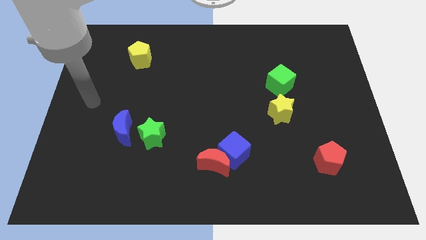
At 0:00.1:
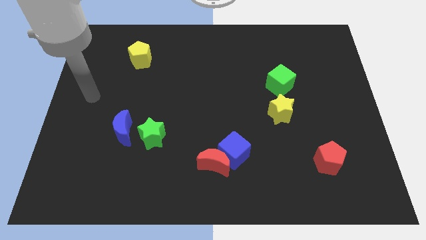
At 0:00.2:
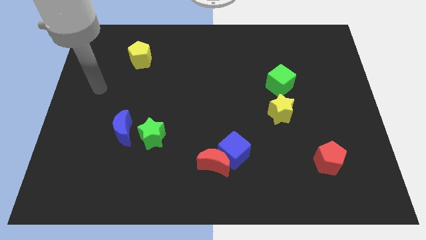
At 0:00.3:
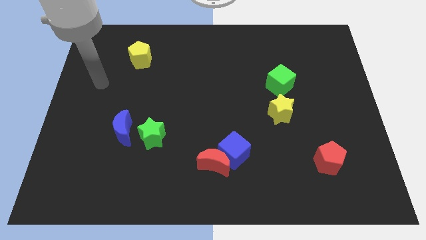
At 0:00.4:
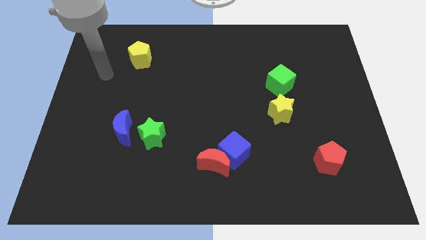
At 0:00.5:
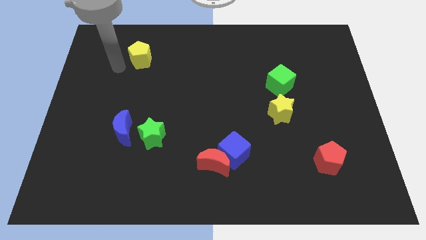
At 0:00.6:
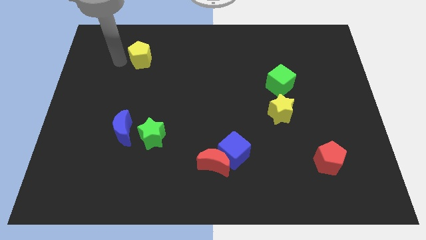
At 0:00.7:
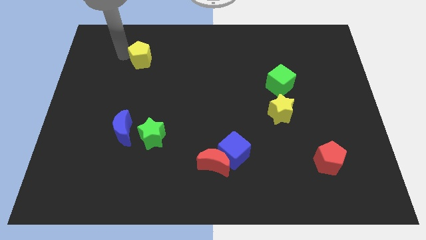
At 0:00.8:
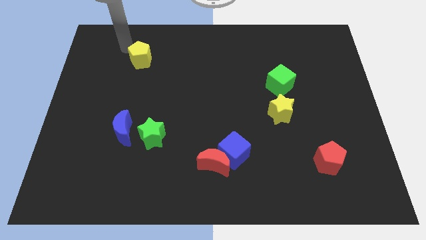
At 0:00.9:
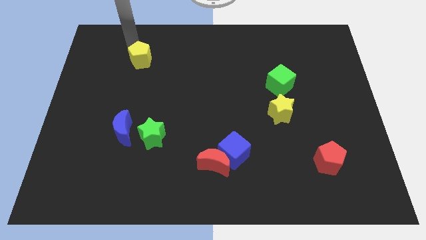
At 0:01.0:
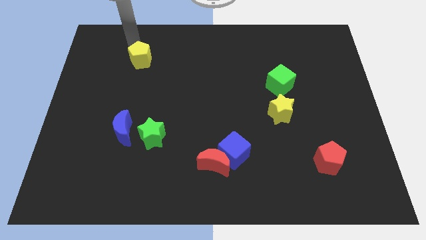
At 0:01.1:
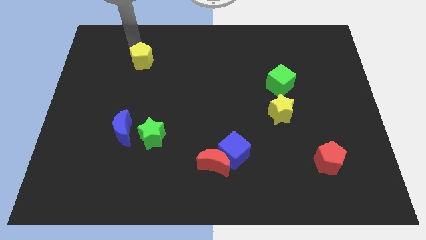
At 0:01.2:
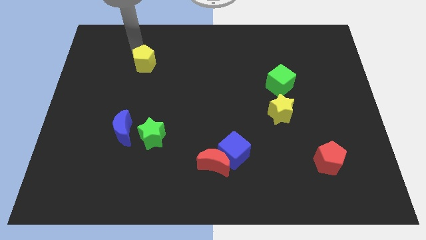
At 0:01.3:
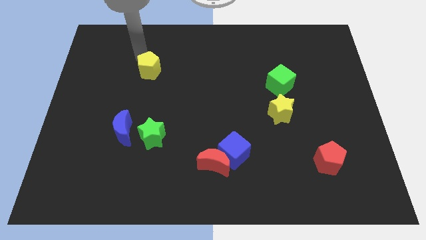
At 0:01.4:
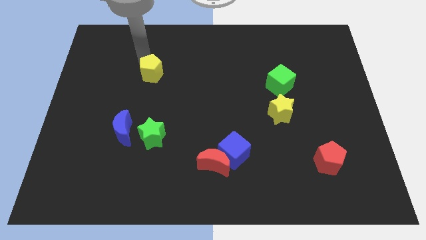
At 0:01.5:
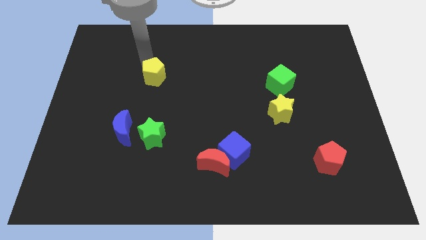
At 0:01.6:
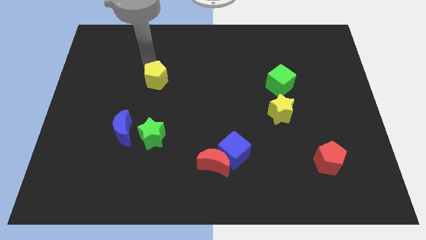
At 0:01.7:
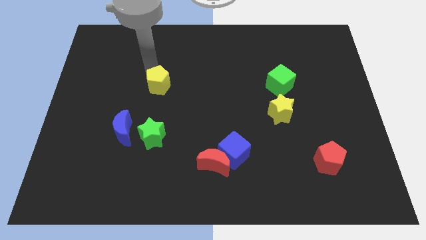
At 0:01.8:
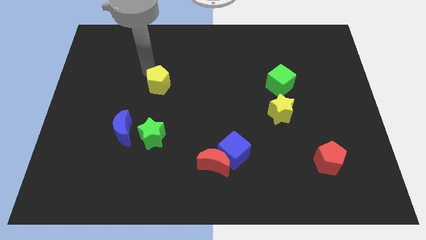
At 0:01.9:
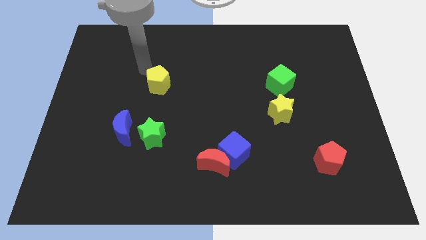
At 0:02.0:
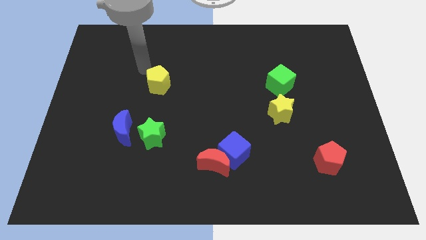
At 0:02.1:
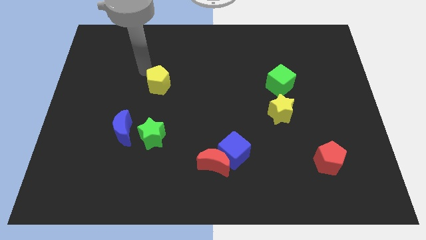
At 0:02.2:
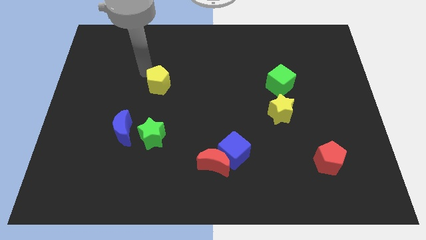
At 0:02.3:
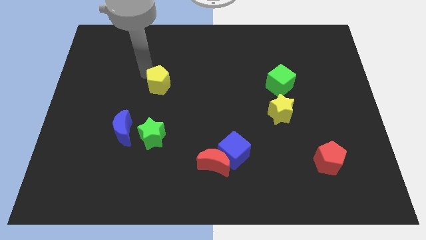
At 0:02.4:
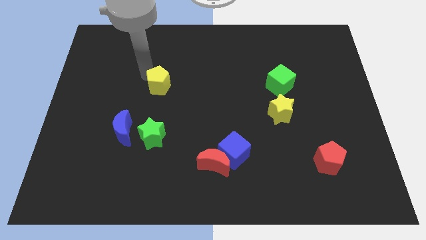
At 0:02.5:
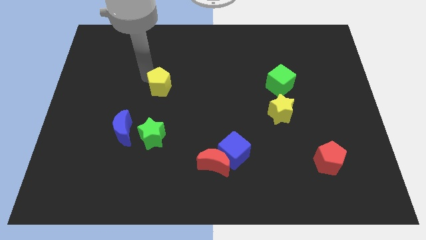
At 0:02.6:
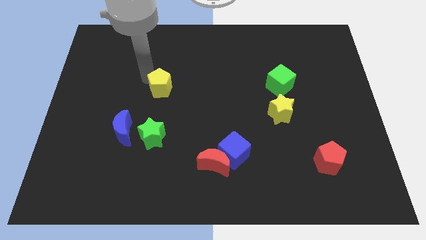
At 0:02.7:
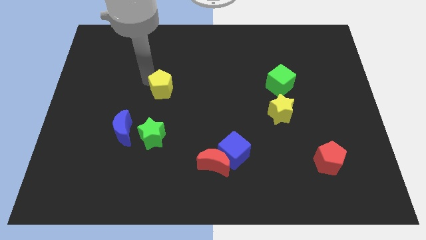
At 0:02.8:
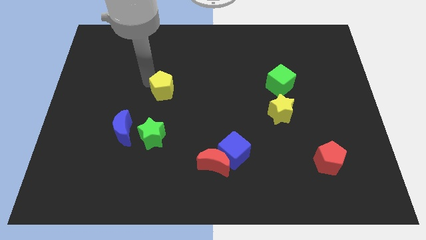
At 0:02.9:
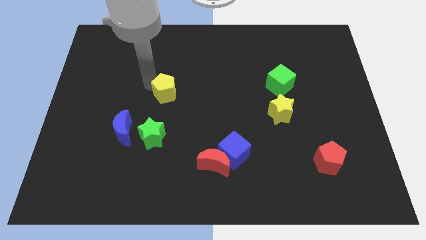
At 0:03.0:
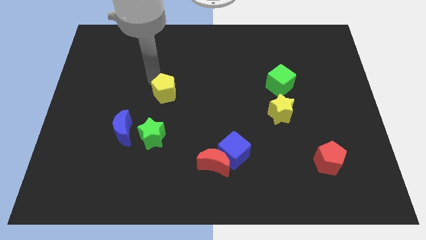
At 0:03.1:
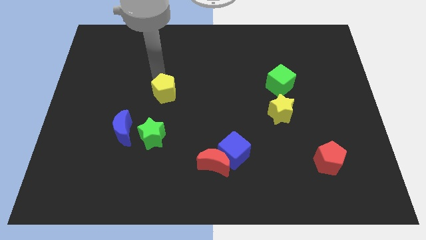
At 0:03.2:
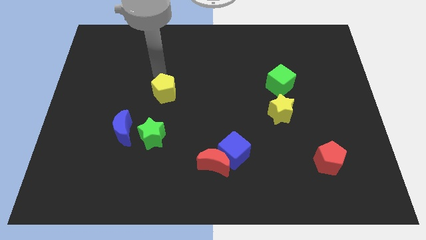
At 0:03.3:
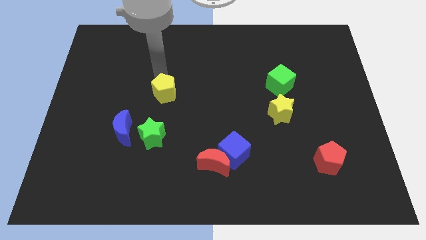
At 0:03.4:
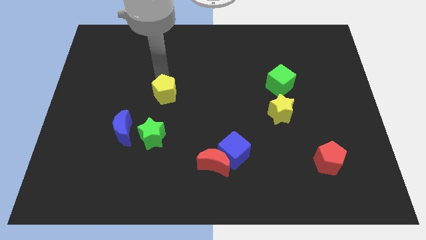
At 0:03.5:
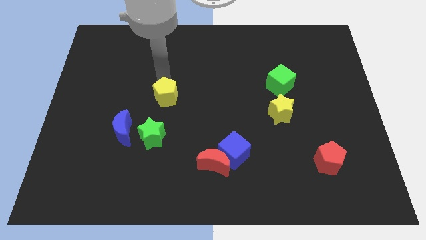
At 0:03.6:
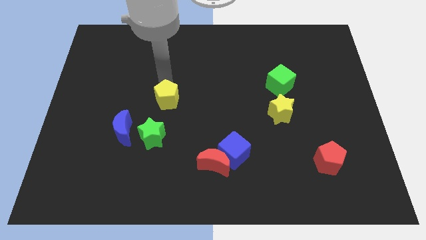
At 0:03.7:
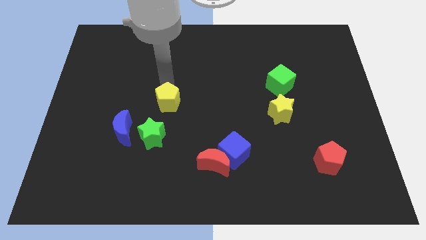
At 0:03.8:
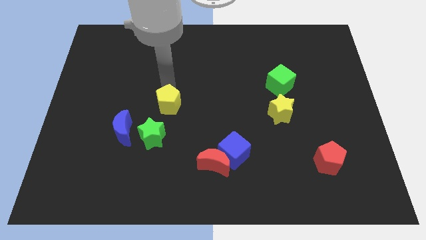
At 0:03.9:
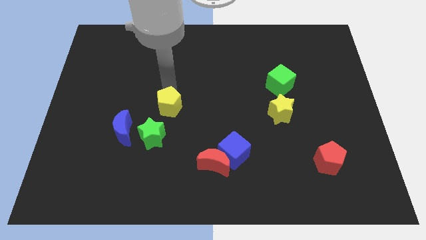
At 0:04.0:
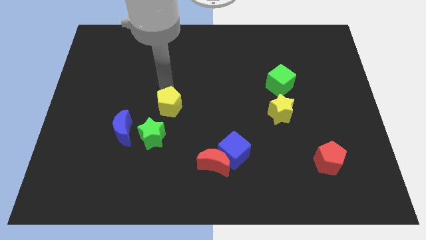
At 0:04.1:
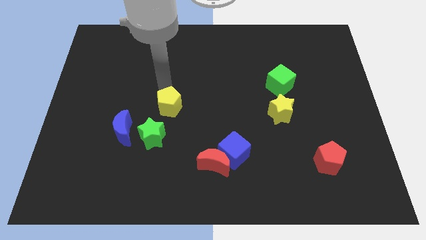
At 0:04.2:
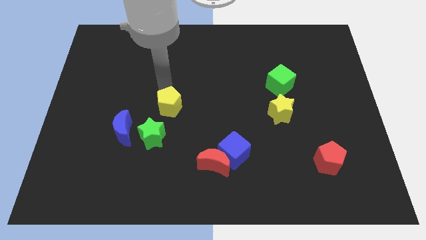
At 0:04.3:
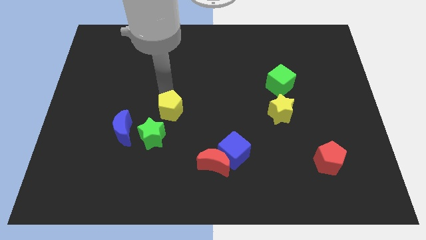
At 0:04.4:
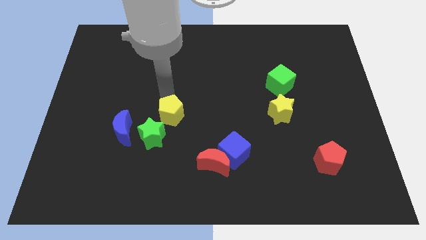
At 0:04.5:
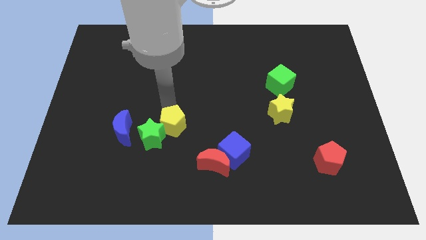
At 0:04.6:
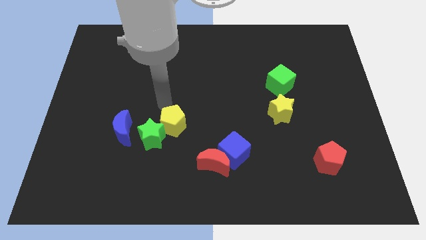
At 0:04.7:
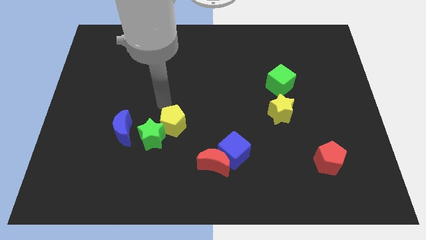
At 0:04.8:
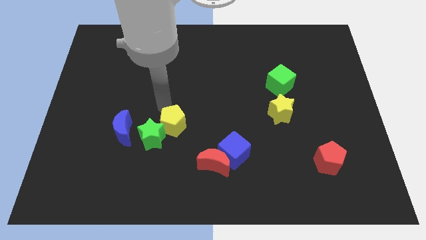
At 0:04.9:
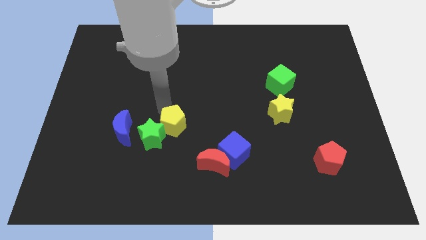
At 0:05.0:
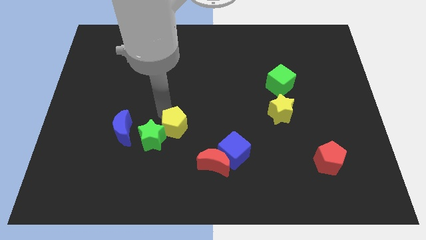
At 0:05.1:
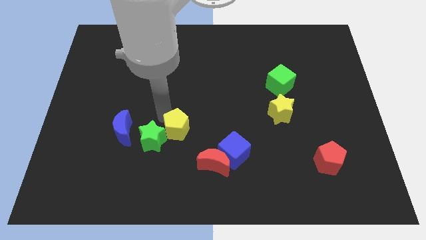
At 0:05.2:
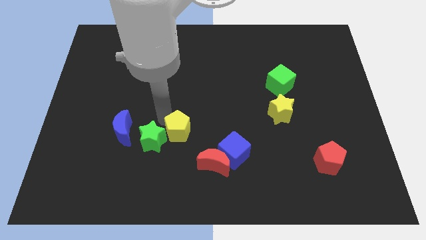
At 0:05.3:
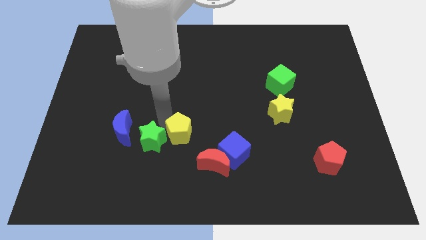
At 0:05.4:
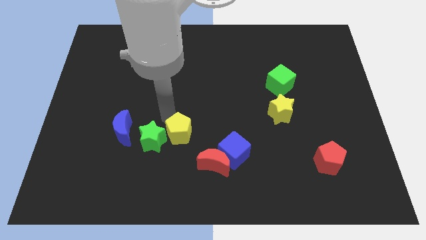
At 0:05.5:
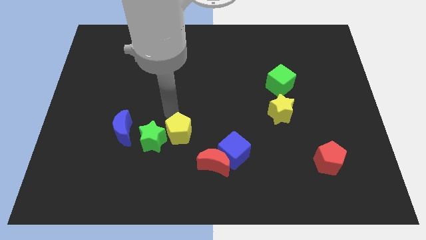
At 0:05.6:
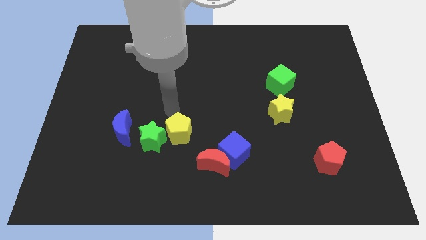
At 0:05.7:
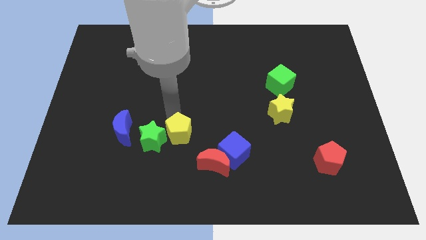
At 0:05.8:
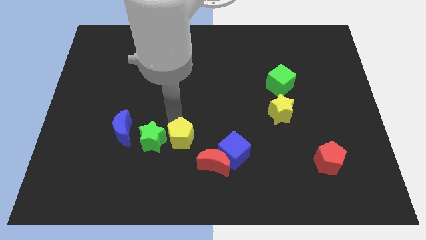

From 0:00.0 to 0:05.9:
move the yellow pentagon to the left side of the blue cube
